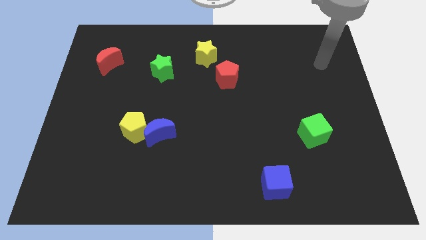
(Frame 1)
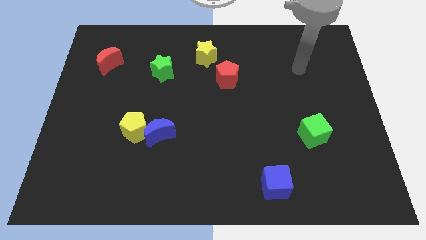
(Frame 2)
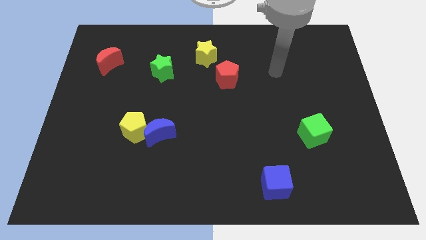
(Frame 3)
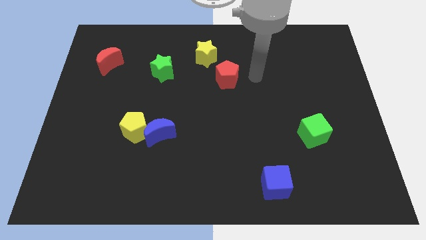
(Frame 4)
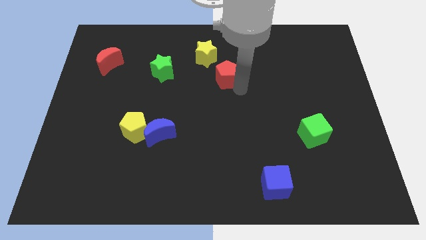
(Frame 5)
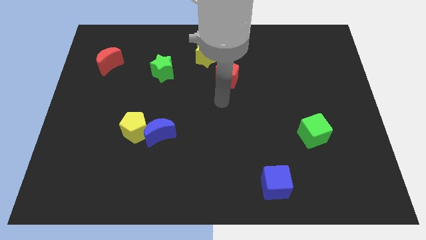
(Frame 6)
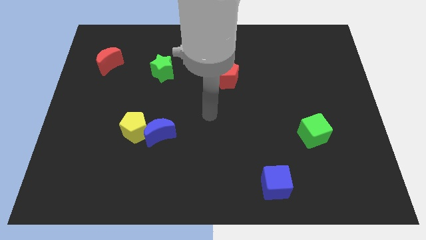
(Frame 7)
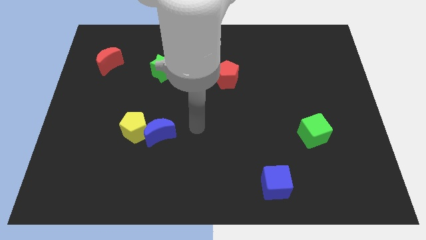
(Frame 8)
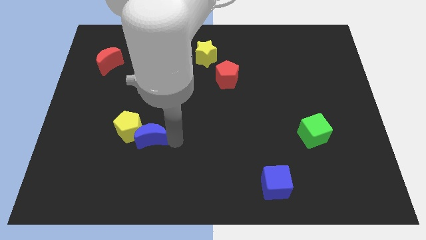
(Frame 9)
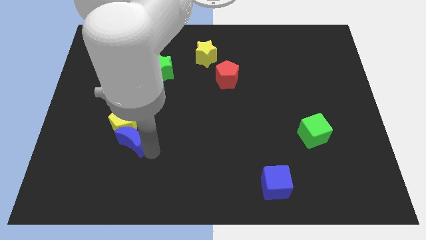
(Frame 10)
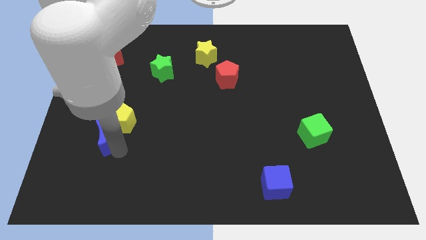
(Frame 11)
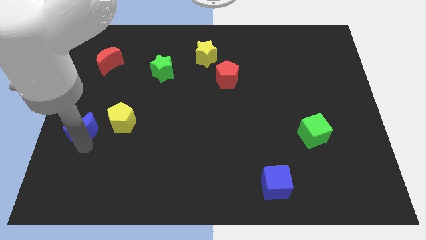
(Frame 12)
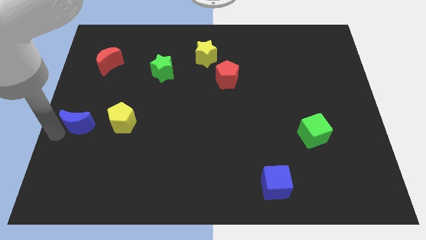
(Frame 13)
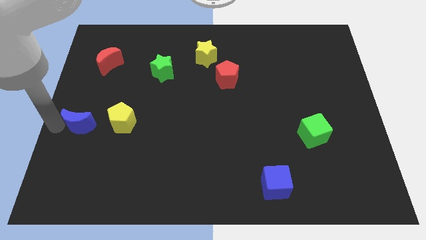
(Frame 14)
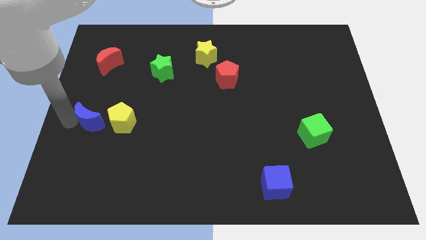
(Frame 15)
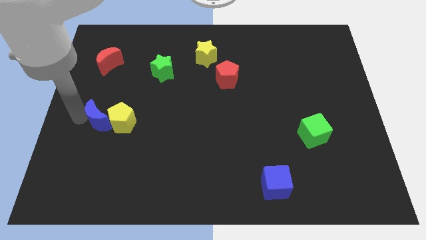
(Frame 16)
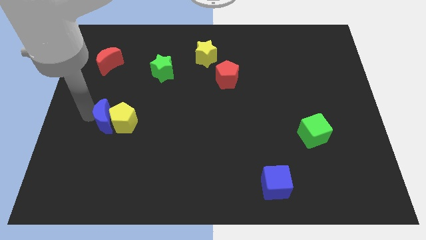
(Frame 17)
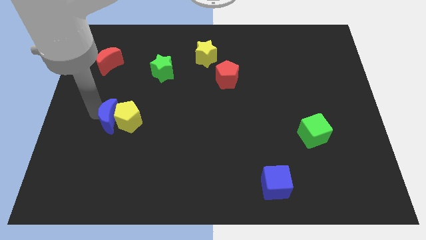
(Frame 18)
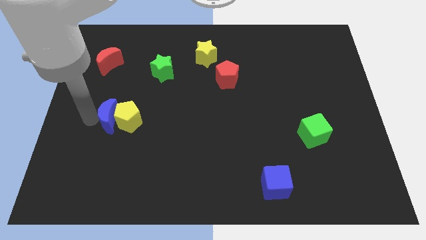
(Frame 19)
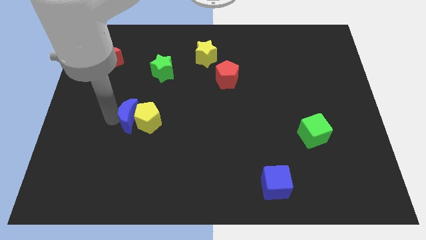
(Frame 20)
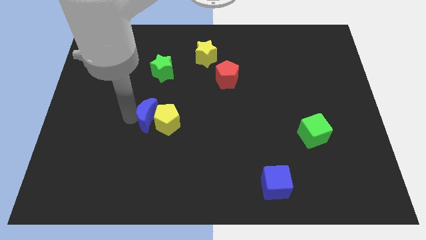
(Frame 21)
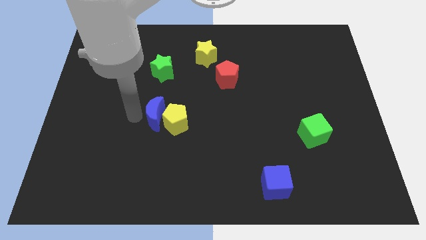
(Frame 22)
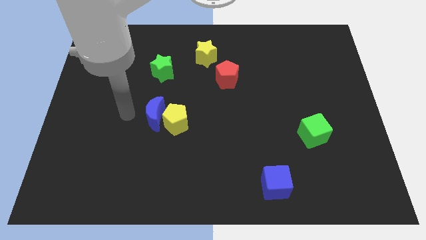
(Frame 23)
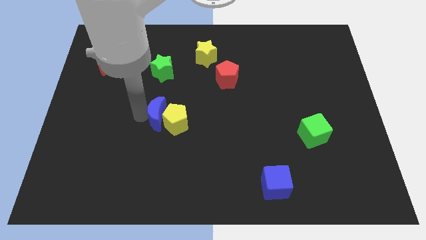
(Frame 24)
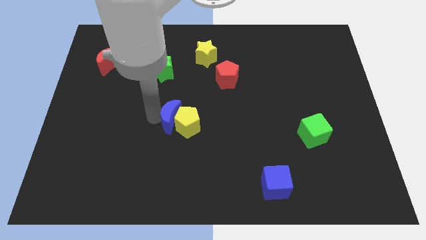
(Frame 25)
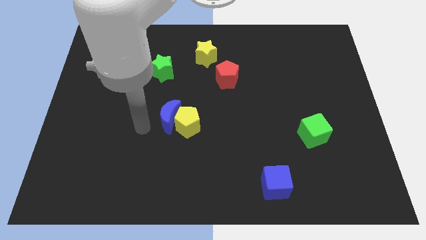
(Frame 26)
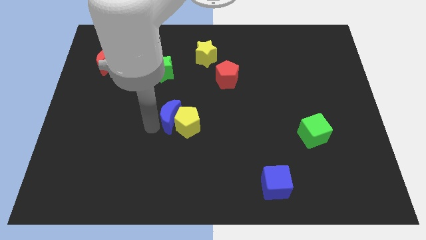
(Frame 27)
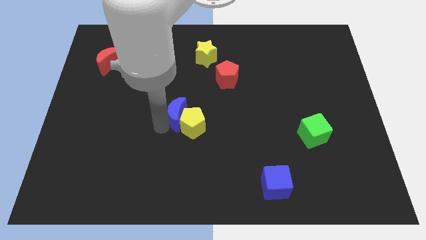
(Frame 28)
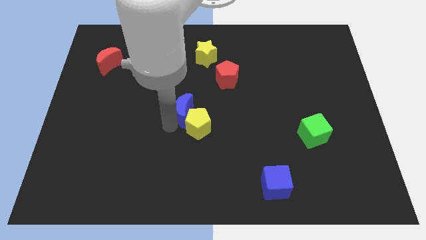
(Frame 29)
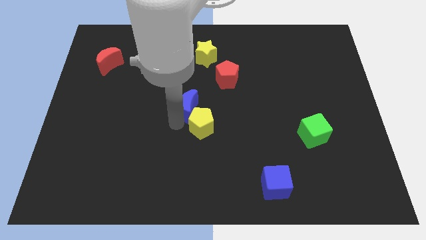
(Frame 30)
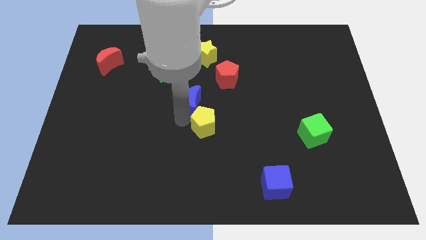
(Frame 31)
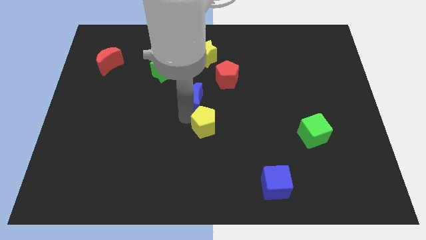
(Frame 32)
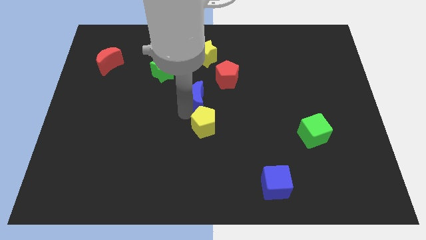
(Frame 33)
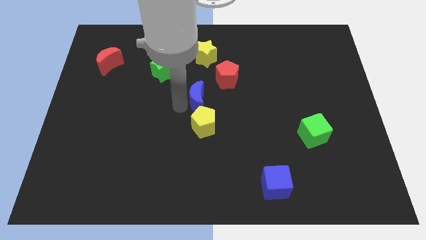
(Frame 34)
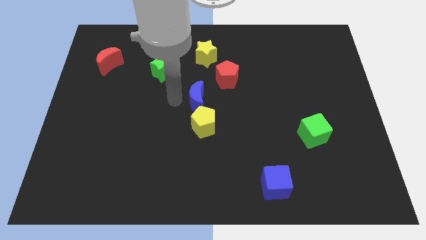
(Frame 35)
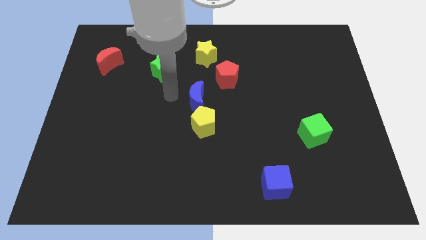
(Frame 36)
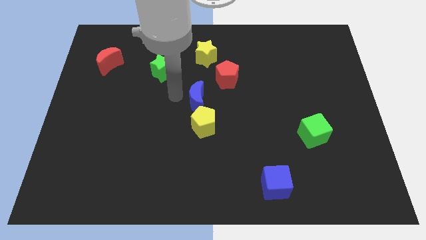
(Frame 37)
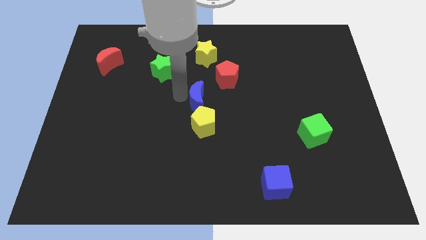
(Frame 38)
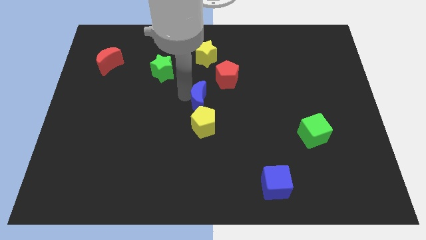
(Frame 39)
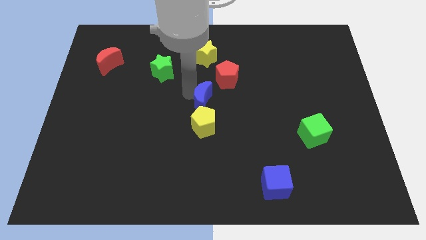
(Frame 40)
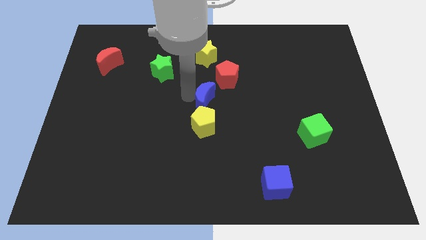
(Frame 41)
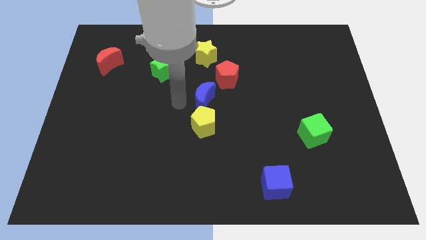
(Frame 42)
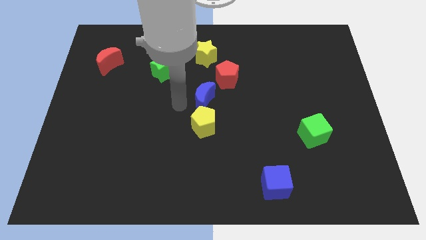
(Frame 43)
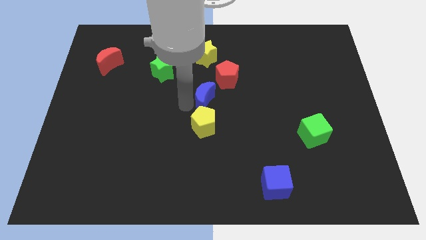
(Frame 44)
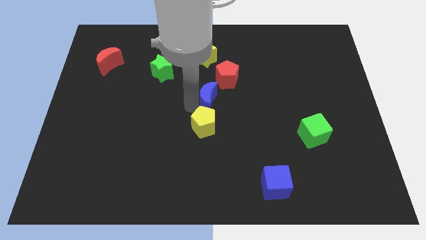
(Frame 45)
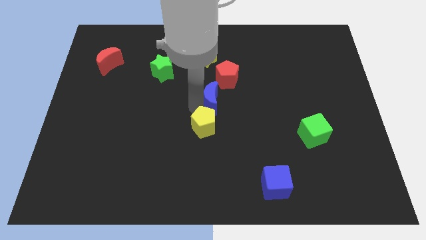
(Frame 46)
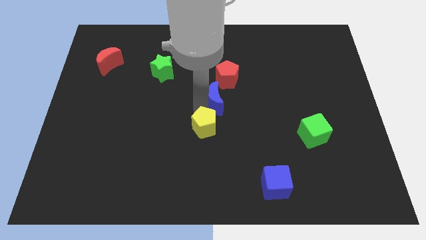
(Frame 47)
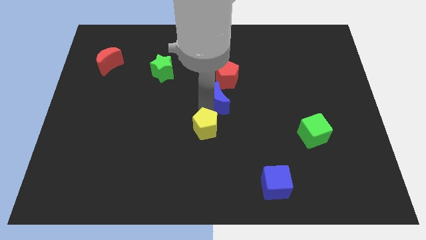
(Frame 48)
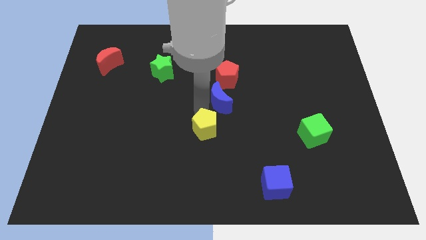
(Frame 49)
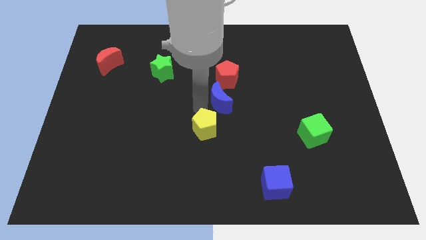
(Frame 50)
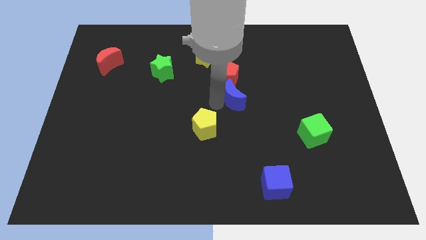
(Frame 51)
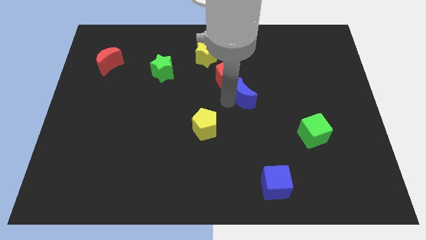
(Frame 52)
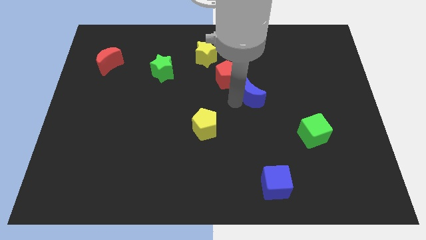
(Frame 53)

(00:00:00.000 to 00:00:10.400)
move the blue moon up and to the right diagonally

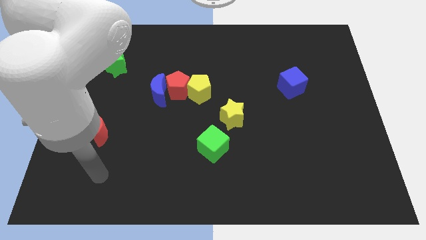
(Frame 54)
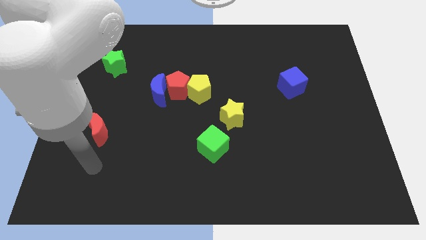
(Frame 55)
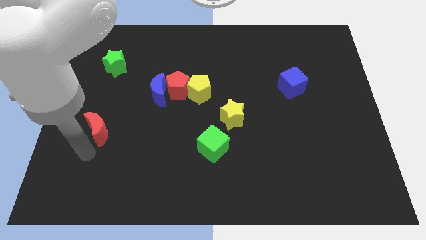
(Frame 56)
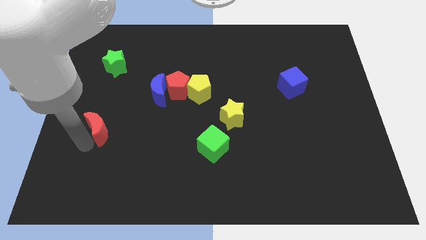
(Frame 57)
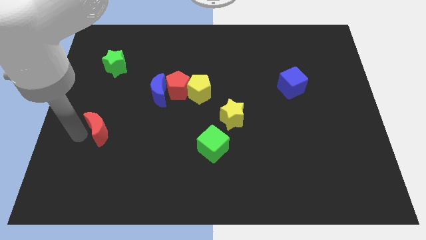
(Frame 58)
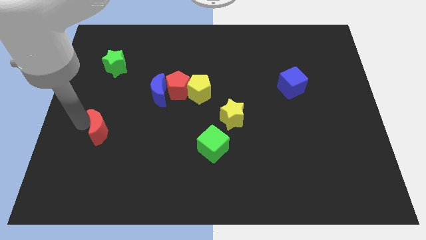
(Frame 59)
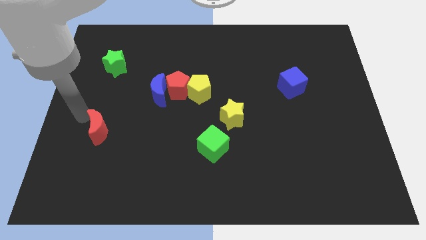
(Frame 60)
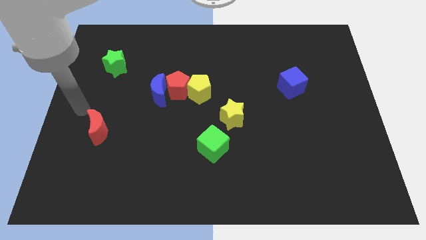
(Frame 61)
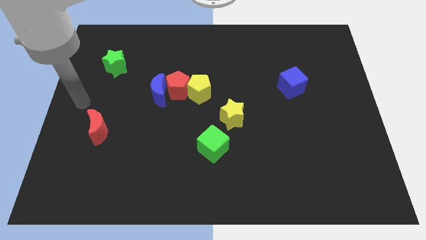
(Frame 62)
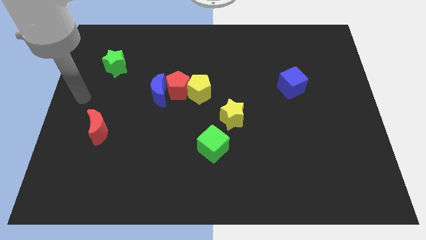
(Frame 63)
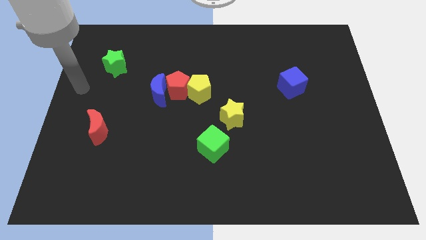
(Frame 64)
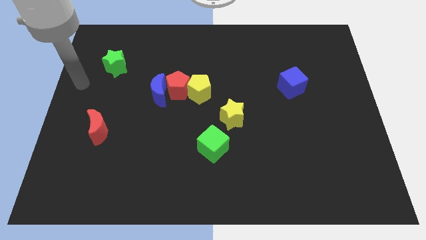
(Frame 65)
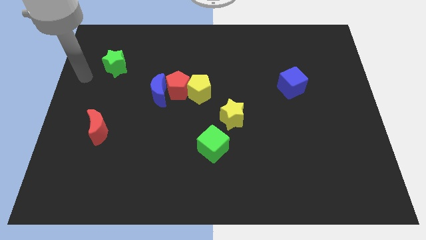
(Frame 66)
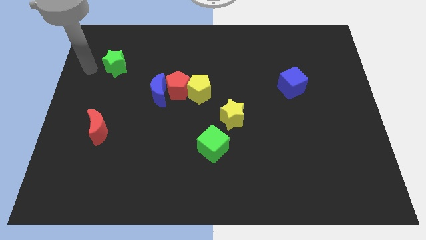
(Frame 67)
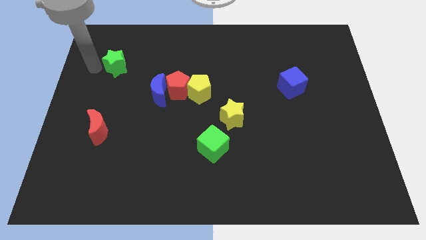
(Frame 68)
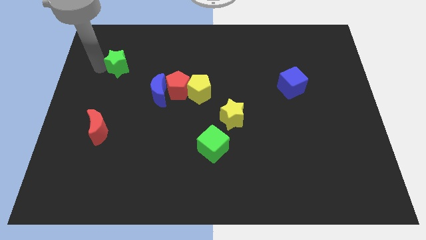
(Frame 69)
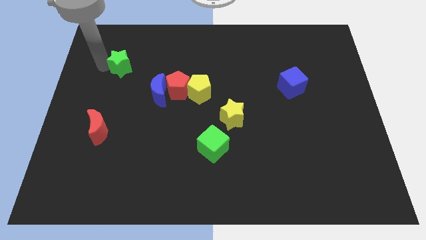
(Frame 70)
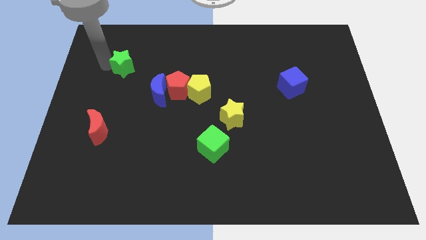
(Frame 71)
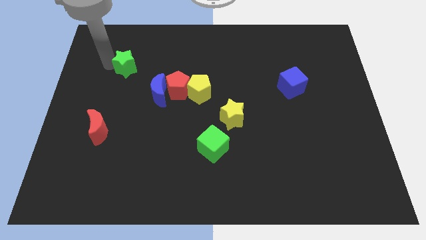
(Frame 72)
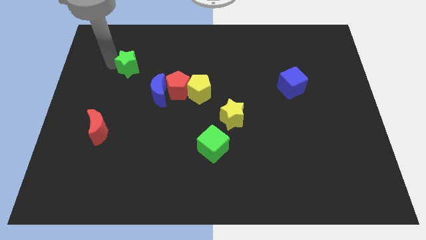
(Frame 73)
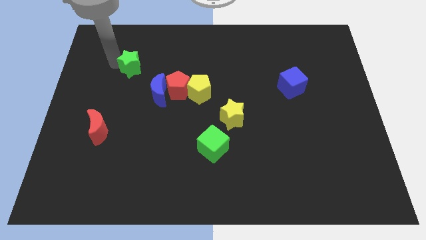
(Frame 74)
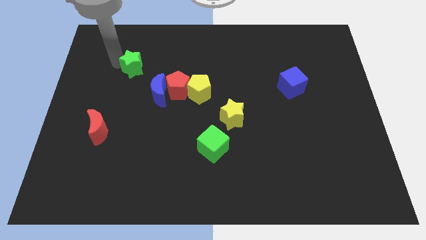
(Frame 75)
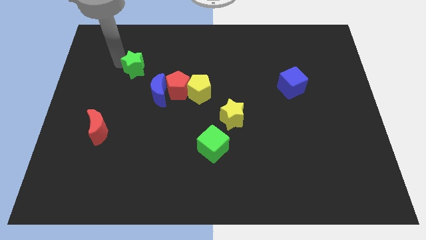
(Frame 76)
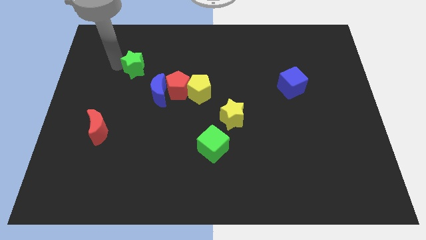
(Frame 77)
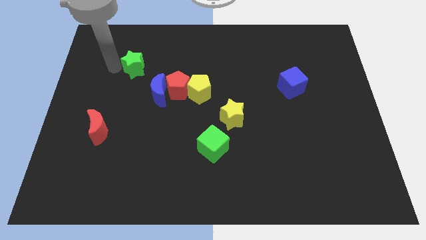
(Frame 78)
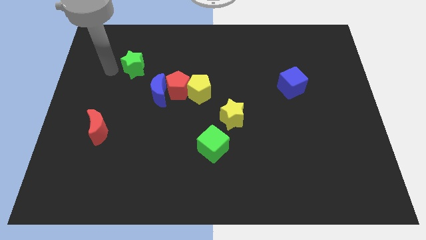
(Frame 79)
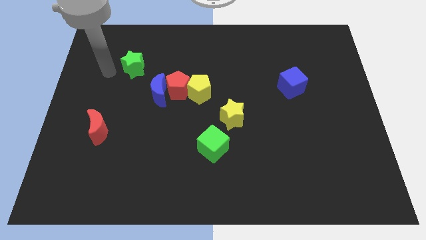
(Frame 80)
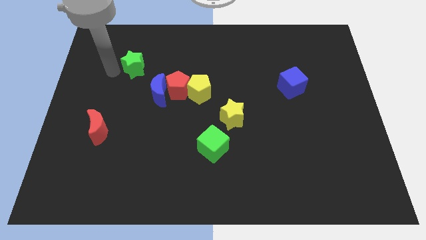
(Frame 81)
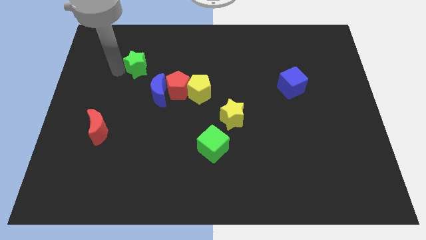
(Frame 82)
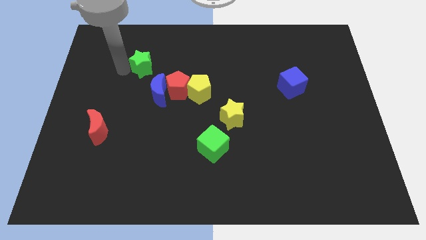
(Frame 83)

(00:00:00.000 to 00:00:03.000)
slide the green star to the right a little
